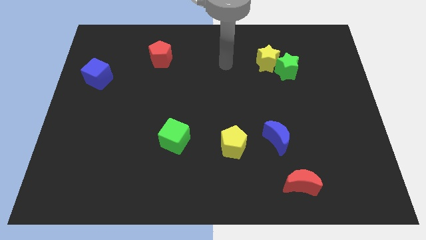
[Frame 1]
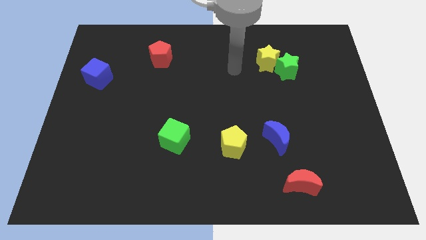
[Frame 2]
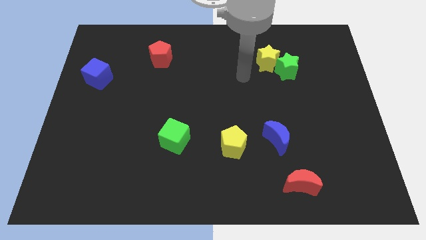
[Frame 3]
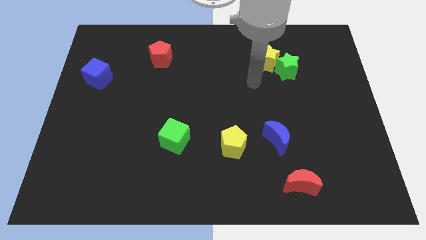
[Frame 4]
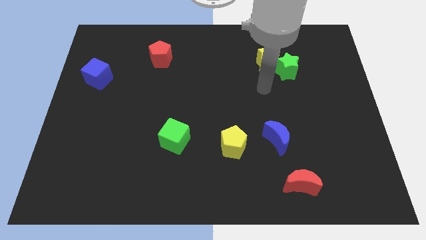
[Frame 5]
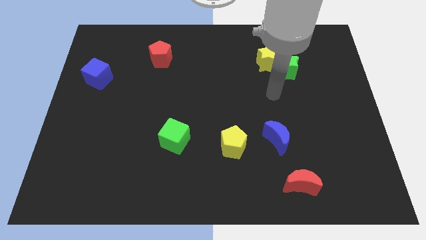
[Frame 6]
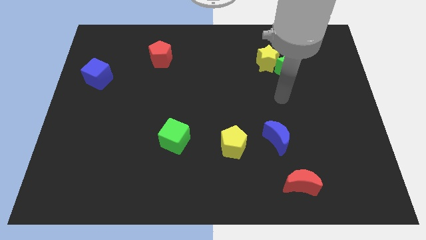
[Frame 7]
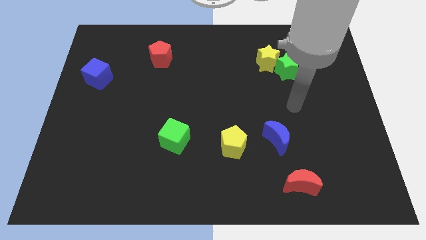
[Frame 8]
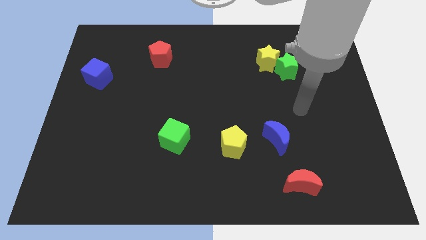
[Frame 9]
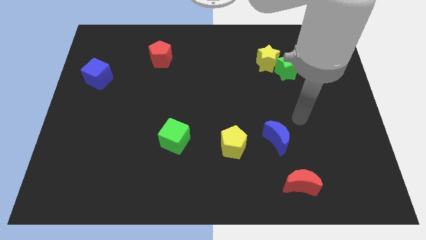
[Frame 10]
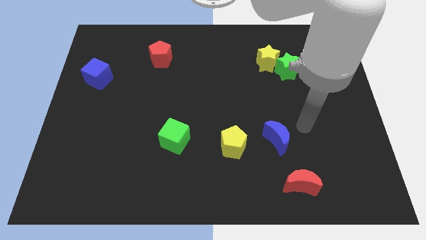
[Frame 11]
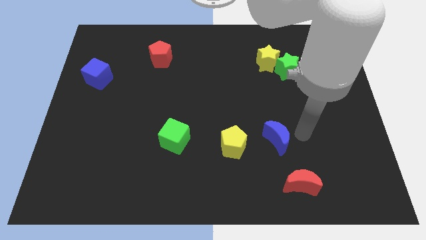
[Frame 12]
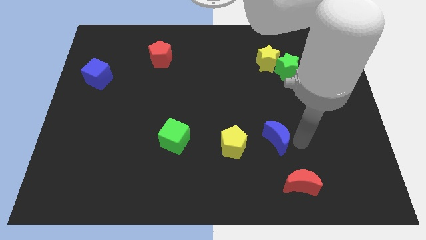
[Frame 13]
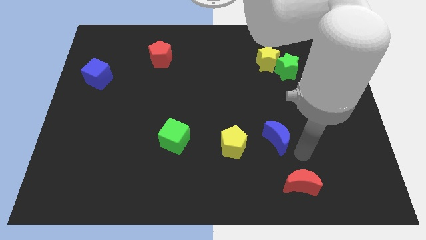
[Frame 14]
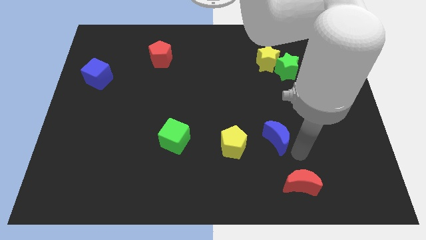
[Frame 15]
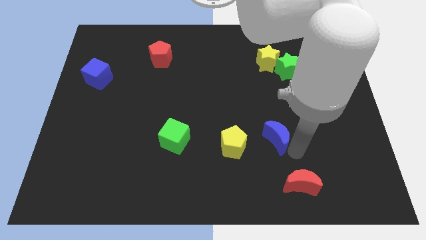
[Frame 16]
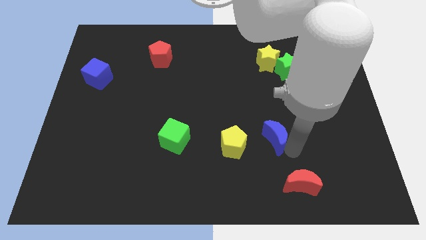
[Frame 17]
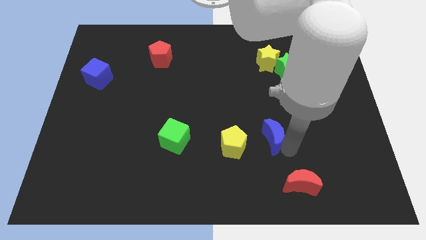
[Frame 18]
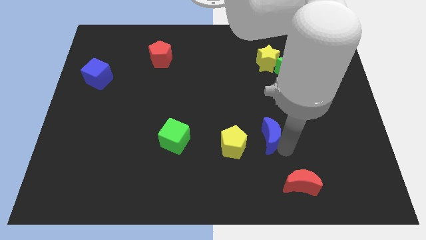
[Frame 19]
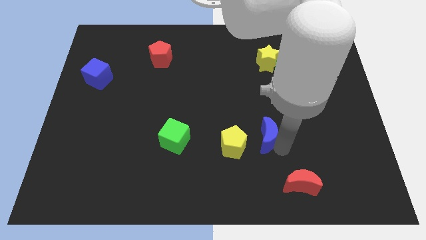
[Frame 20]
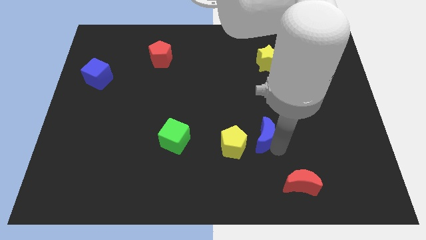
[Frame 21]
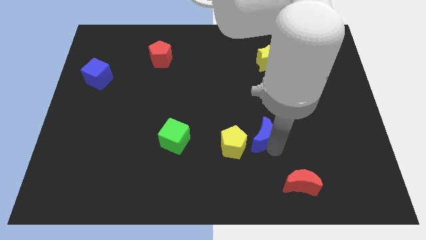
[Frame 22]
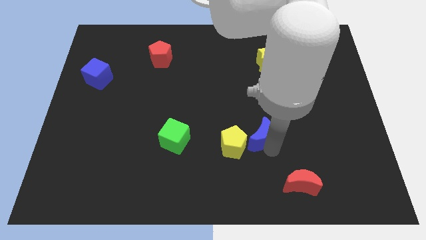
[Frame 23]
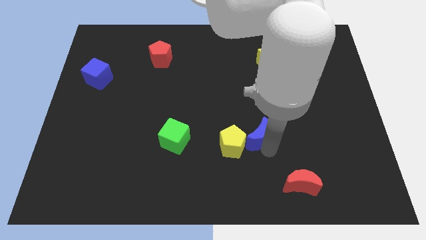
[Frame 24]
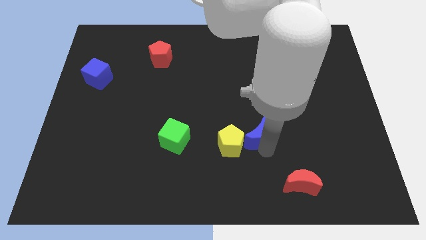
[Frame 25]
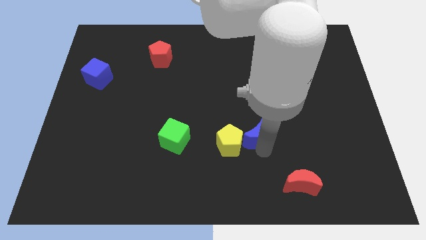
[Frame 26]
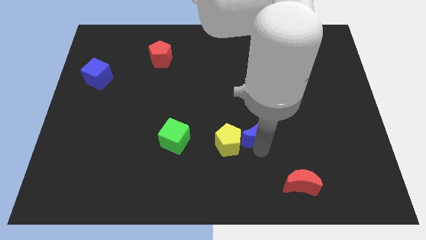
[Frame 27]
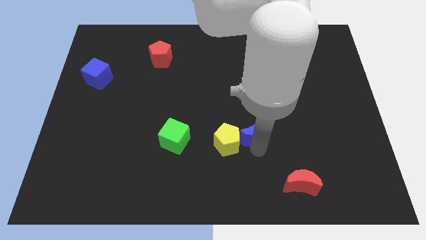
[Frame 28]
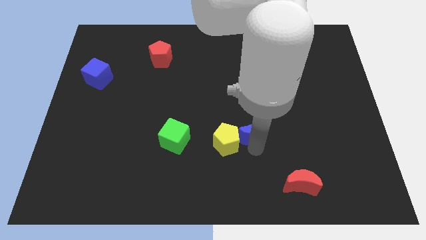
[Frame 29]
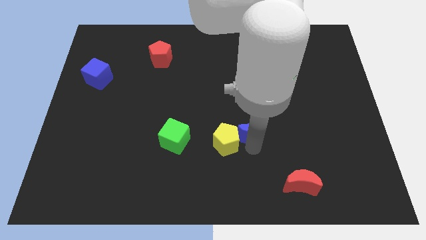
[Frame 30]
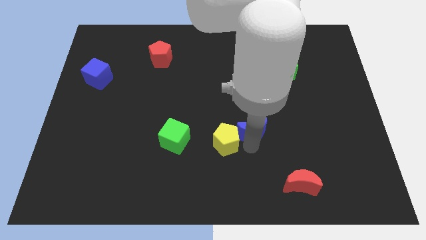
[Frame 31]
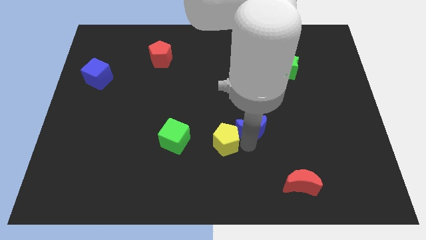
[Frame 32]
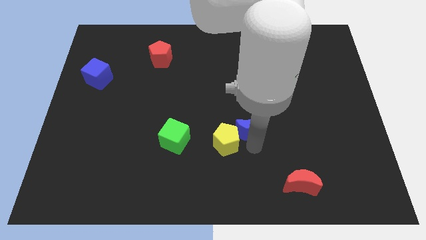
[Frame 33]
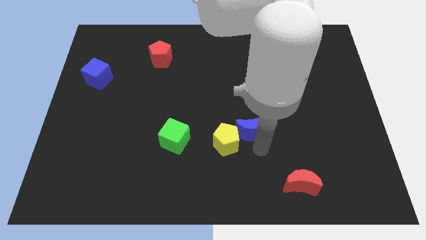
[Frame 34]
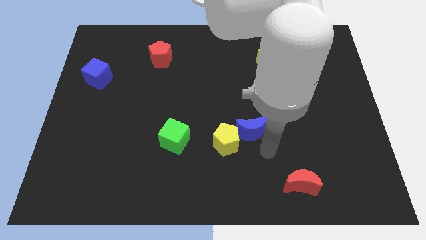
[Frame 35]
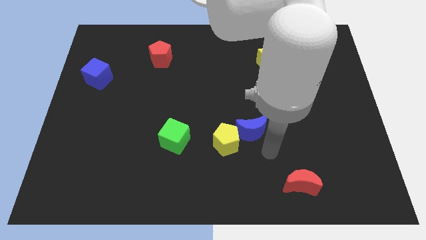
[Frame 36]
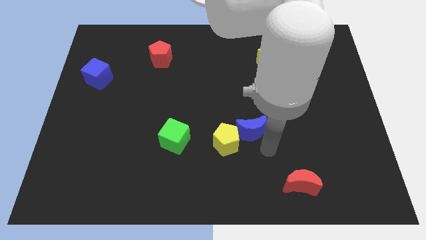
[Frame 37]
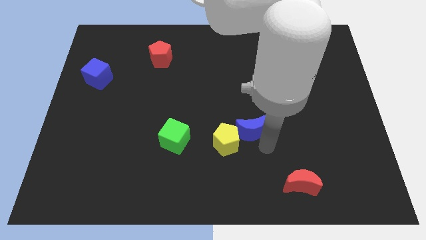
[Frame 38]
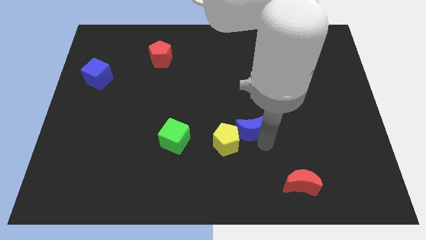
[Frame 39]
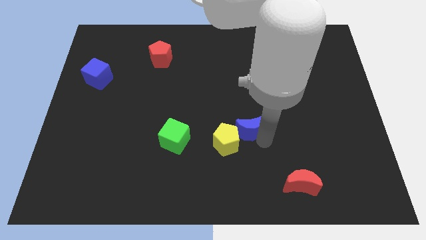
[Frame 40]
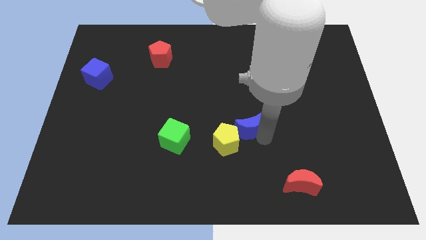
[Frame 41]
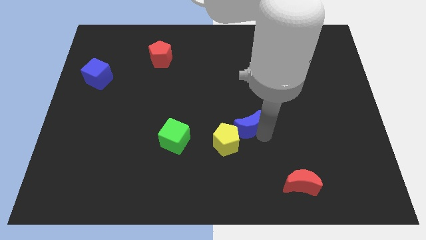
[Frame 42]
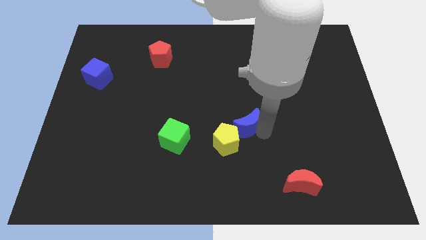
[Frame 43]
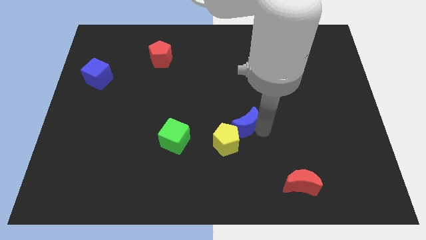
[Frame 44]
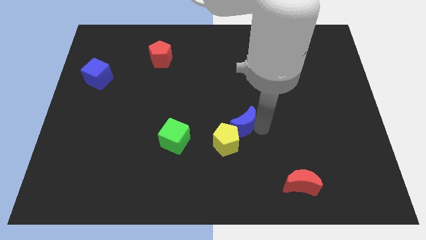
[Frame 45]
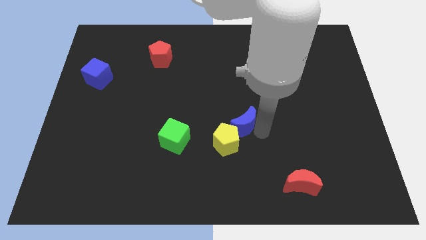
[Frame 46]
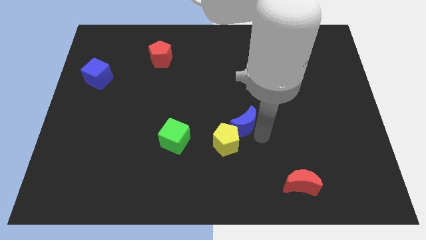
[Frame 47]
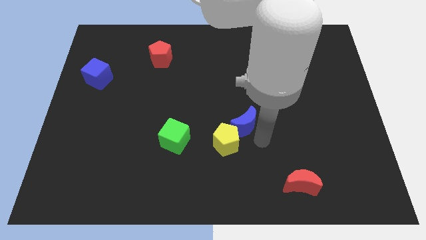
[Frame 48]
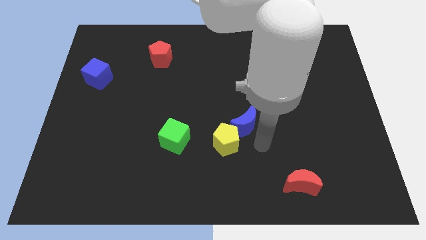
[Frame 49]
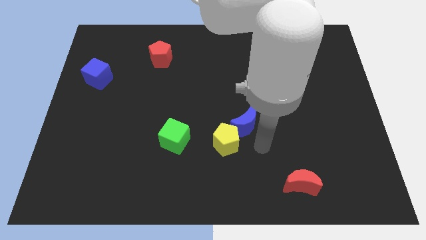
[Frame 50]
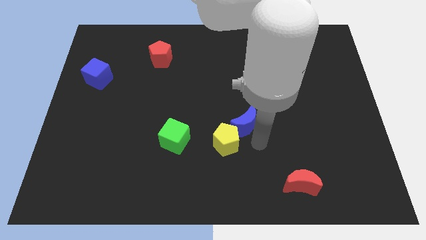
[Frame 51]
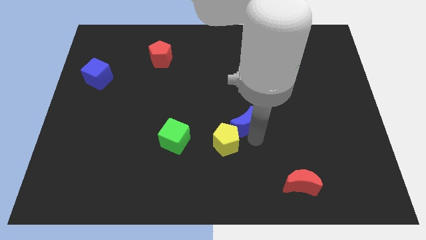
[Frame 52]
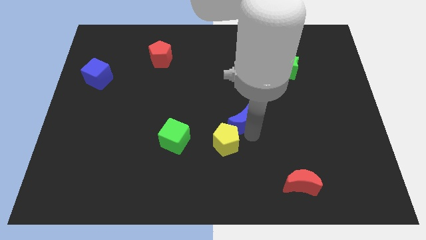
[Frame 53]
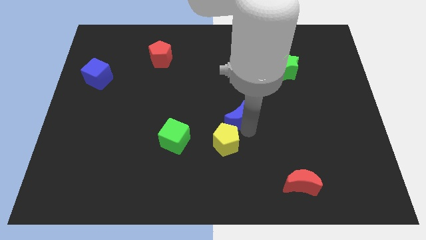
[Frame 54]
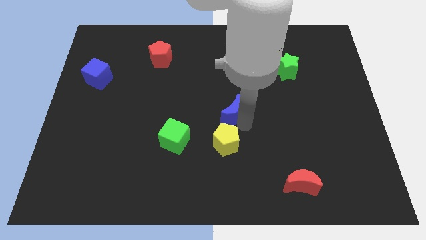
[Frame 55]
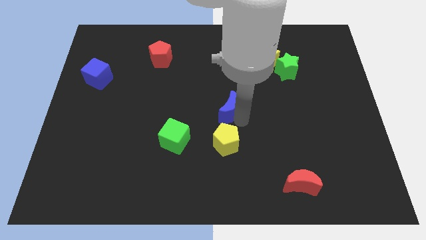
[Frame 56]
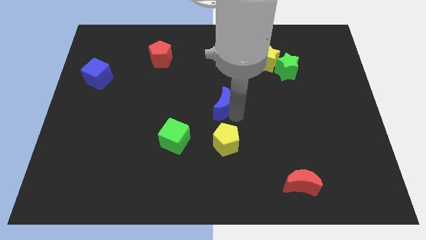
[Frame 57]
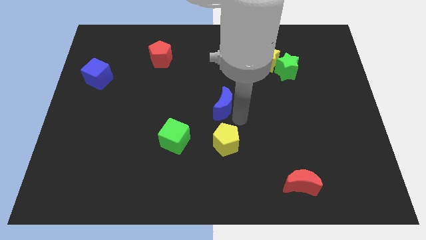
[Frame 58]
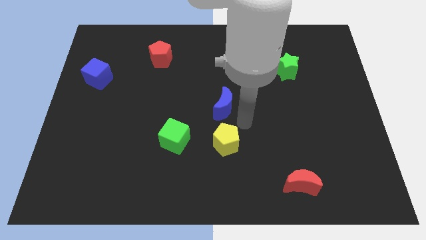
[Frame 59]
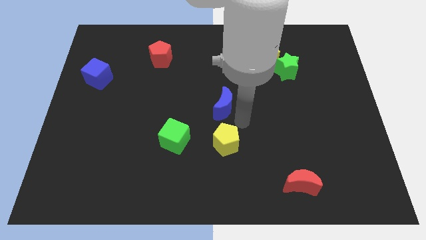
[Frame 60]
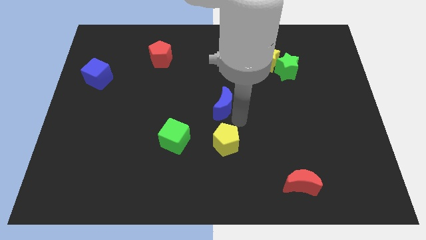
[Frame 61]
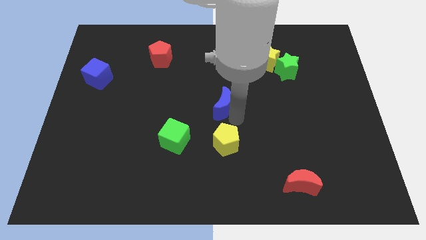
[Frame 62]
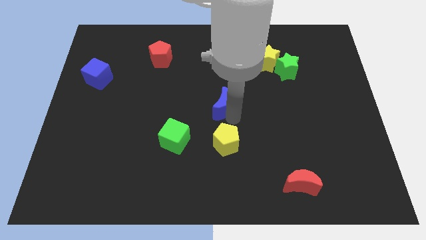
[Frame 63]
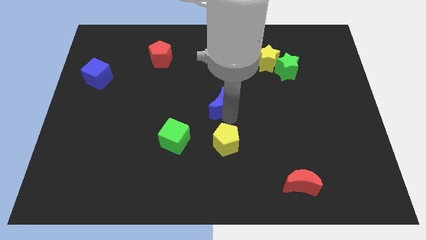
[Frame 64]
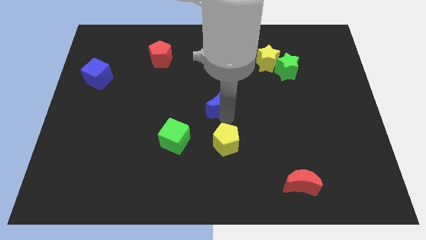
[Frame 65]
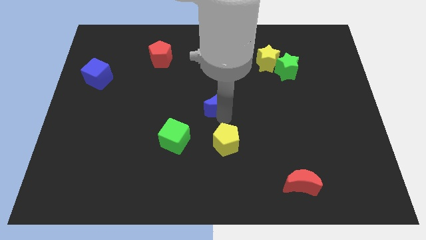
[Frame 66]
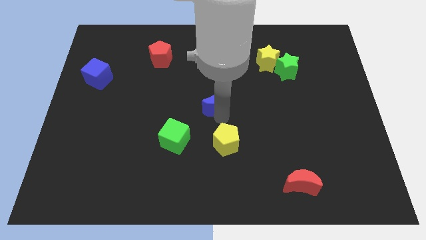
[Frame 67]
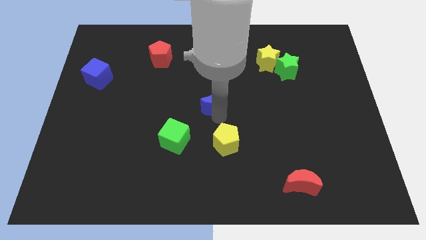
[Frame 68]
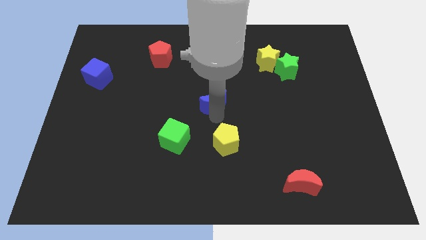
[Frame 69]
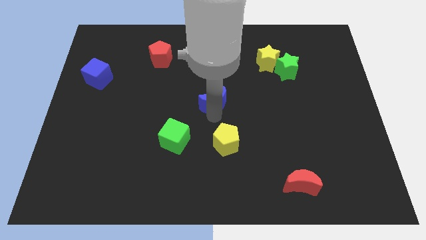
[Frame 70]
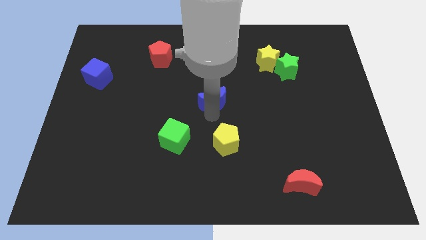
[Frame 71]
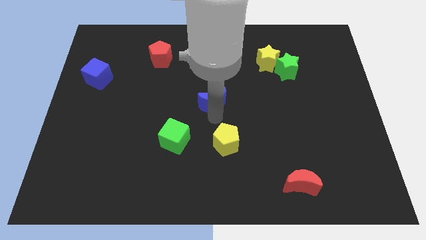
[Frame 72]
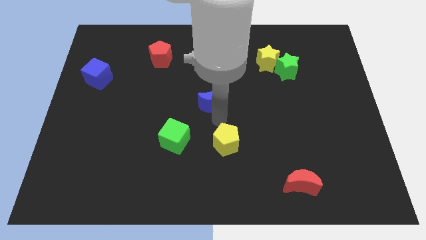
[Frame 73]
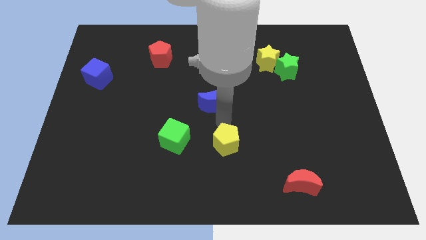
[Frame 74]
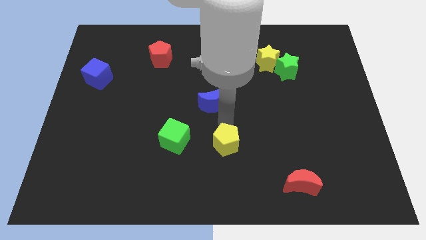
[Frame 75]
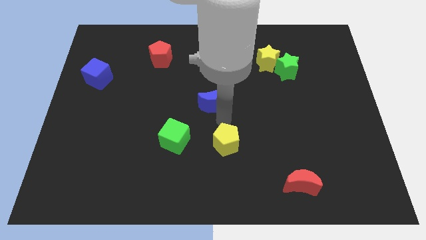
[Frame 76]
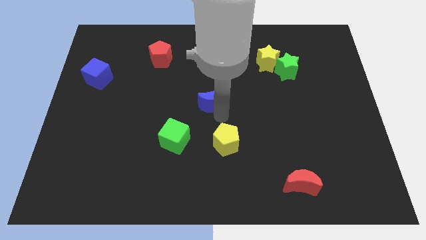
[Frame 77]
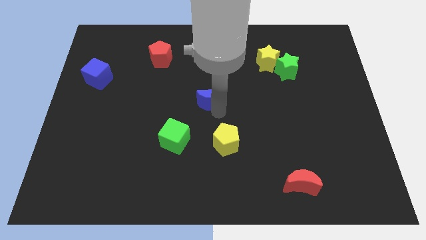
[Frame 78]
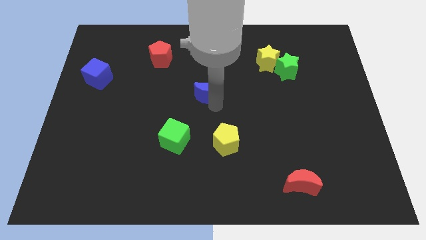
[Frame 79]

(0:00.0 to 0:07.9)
move the blue moon up and left

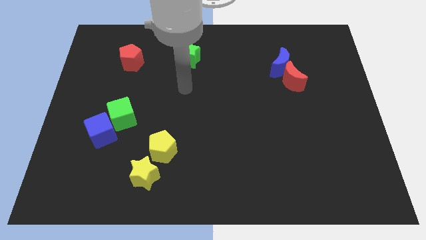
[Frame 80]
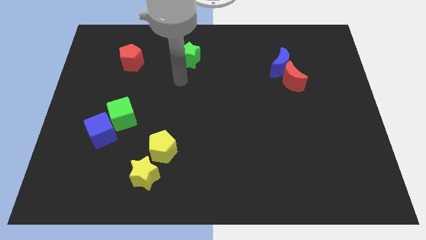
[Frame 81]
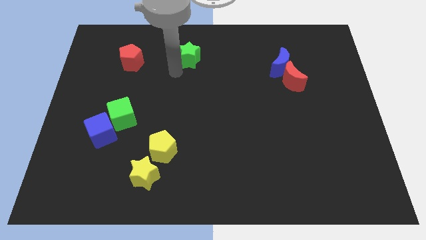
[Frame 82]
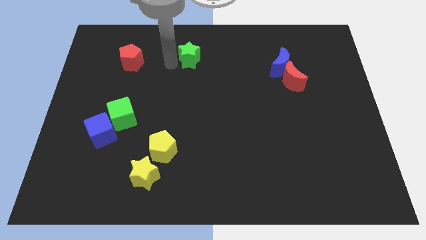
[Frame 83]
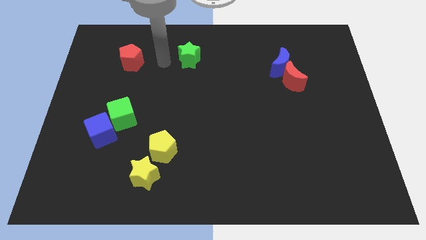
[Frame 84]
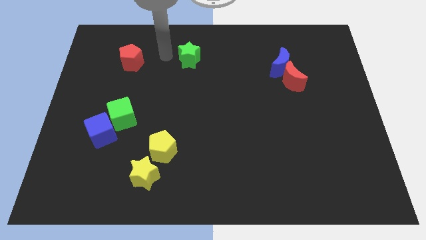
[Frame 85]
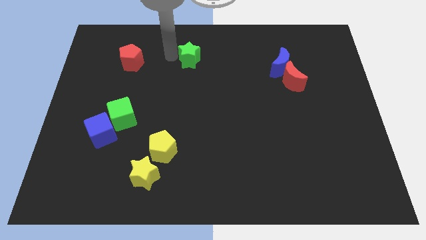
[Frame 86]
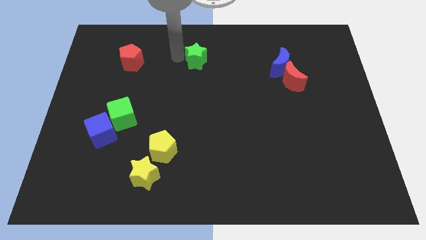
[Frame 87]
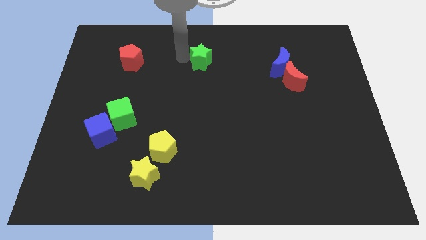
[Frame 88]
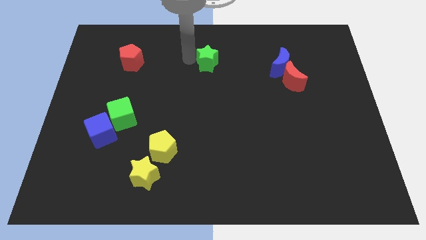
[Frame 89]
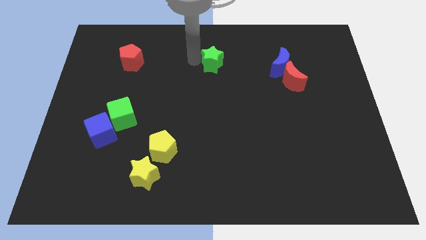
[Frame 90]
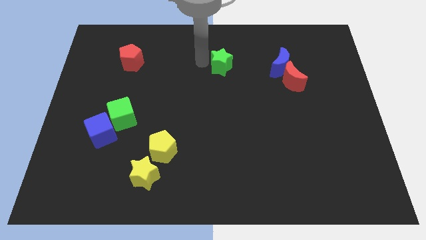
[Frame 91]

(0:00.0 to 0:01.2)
slide the green star right a little
